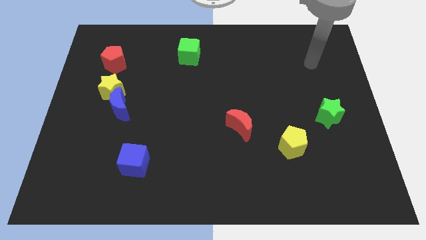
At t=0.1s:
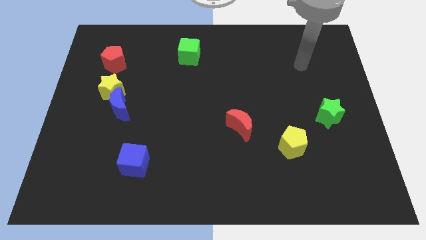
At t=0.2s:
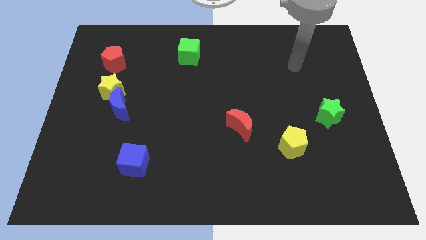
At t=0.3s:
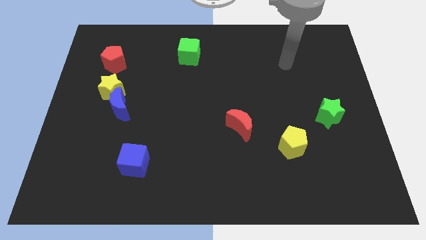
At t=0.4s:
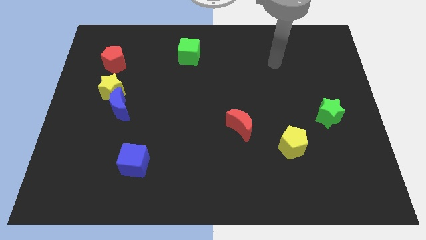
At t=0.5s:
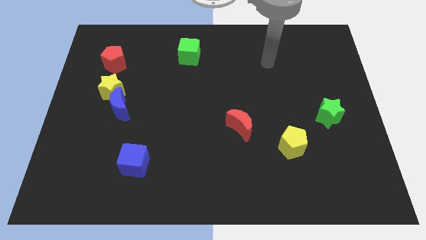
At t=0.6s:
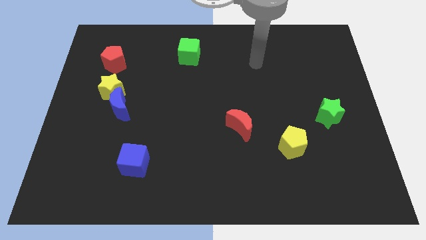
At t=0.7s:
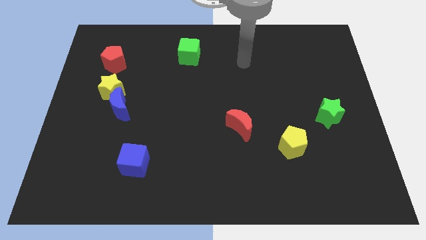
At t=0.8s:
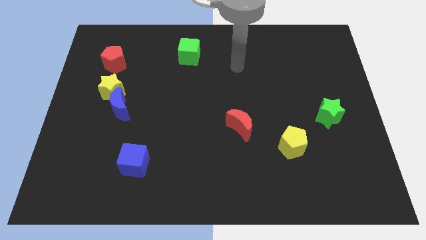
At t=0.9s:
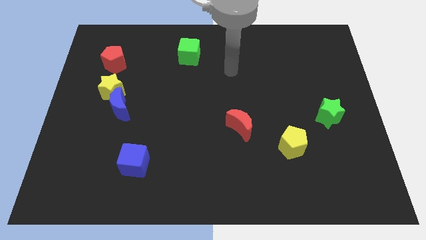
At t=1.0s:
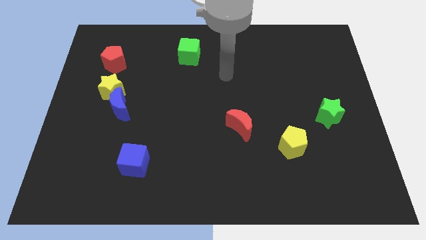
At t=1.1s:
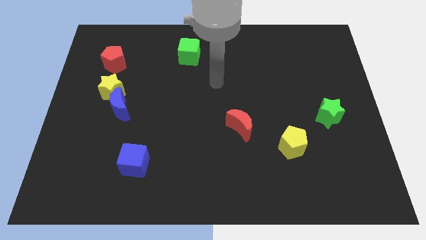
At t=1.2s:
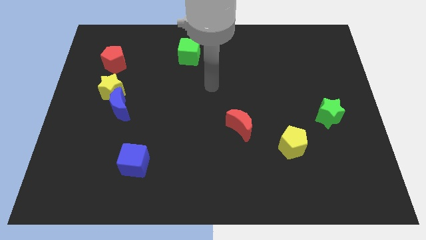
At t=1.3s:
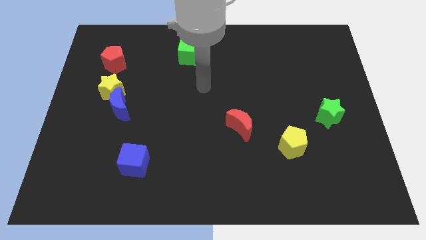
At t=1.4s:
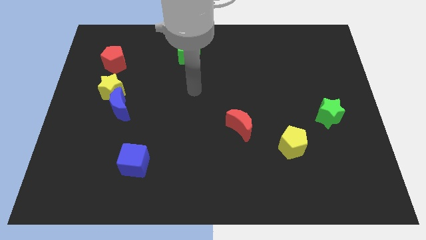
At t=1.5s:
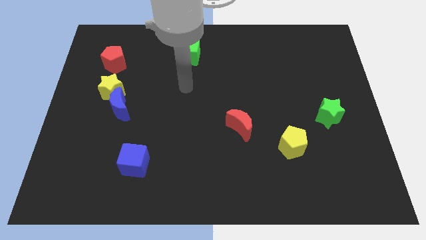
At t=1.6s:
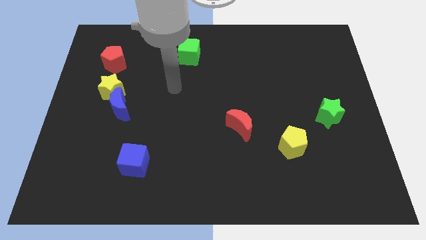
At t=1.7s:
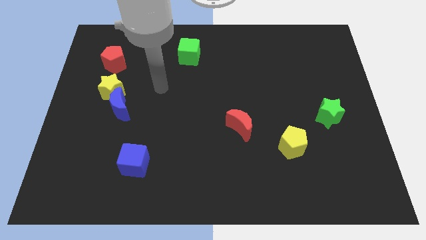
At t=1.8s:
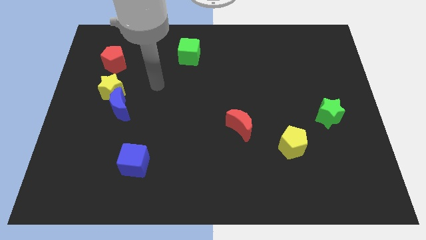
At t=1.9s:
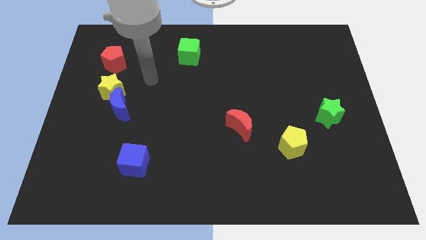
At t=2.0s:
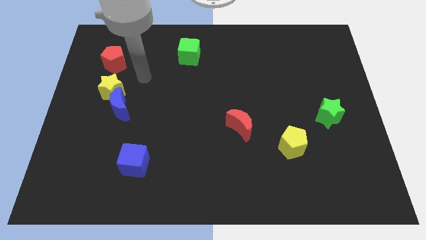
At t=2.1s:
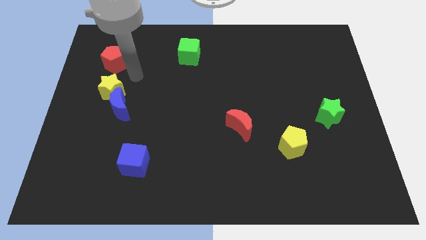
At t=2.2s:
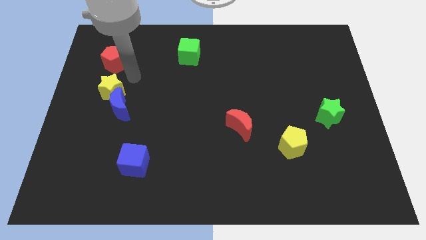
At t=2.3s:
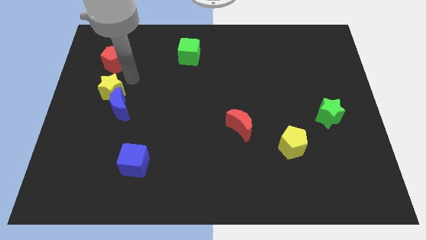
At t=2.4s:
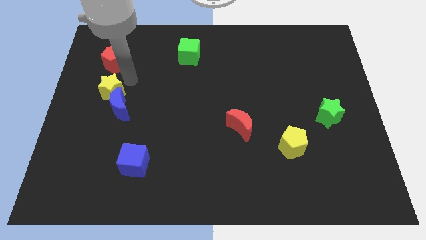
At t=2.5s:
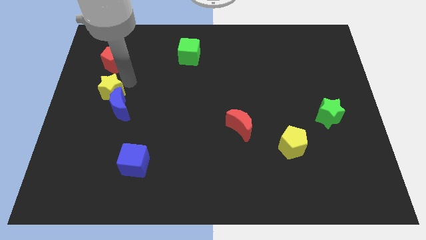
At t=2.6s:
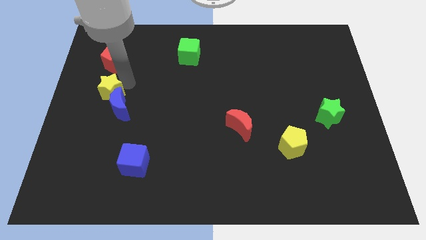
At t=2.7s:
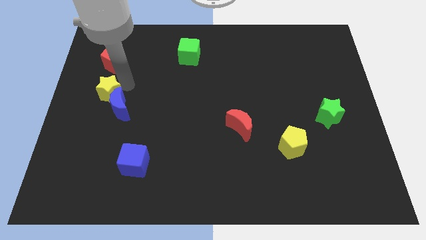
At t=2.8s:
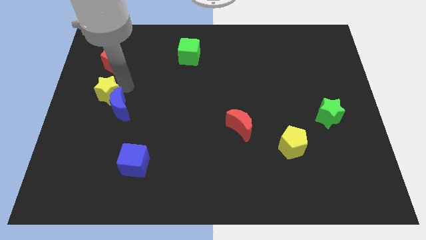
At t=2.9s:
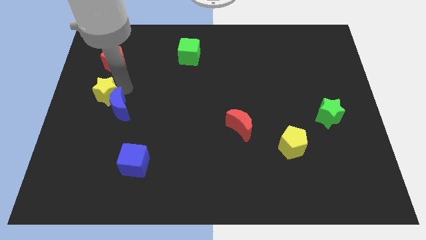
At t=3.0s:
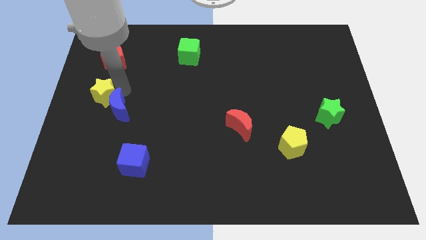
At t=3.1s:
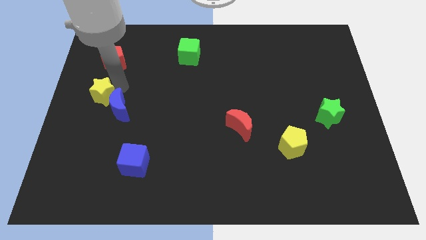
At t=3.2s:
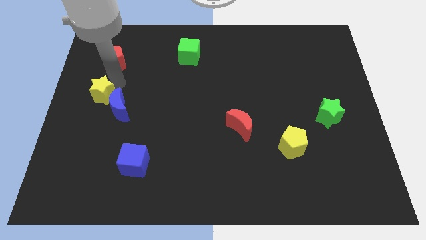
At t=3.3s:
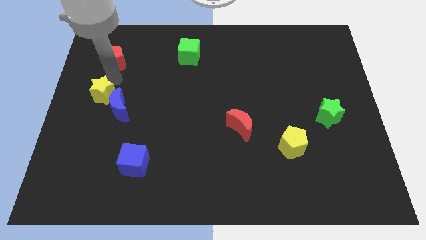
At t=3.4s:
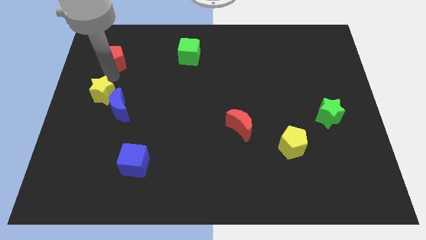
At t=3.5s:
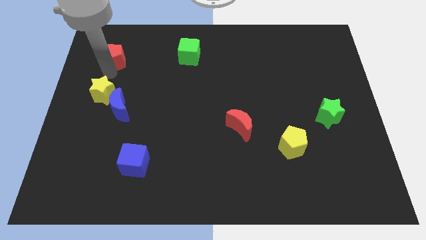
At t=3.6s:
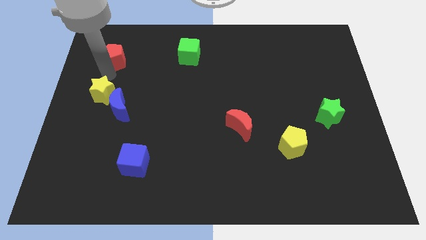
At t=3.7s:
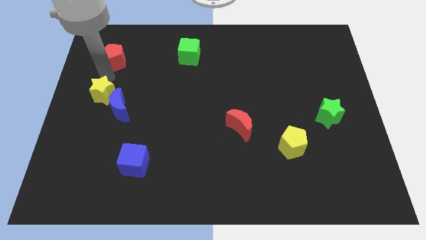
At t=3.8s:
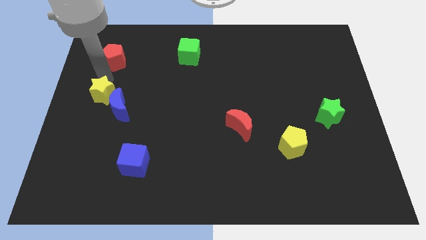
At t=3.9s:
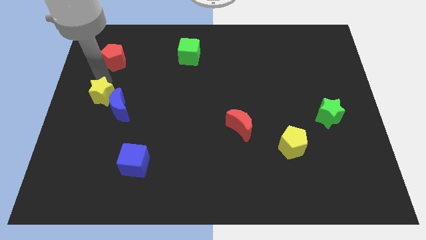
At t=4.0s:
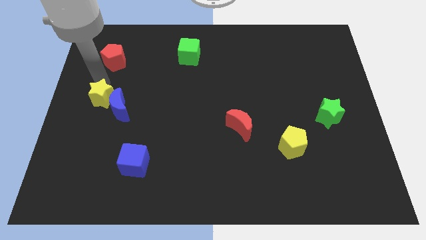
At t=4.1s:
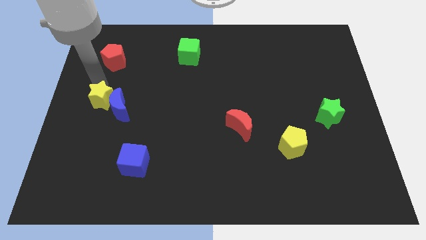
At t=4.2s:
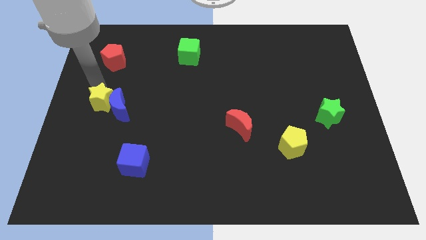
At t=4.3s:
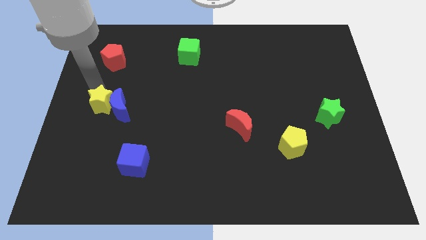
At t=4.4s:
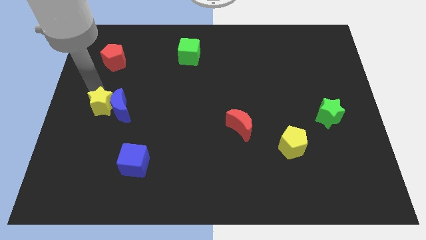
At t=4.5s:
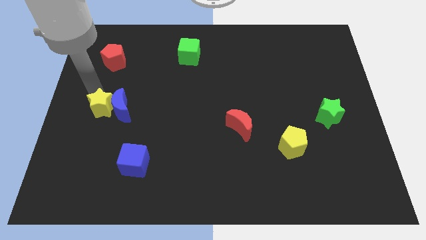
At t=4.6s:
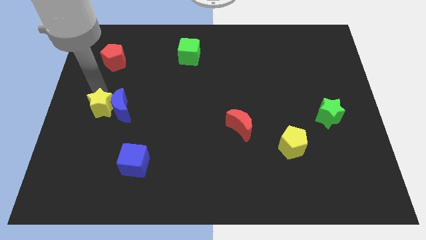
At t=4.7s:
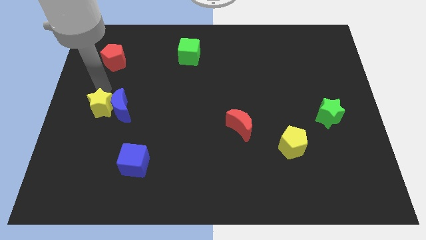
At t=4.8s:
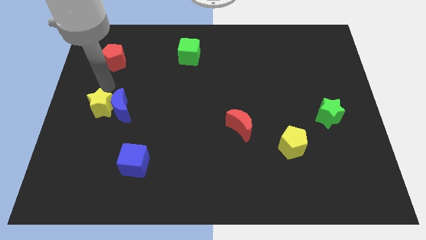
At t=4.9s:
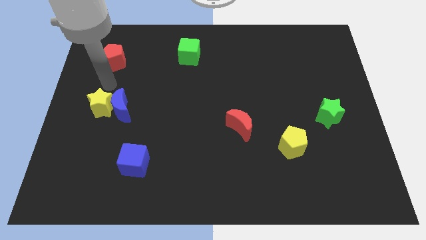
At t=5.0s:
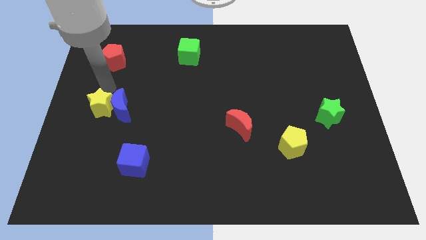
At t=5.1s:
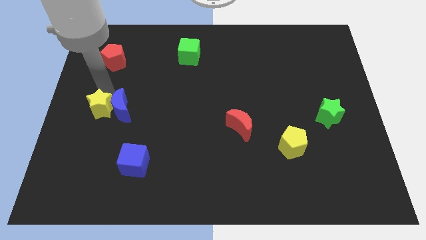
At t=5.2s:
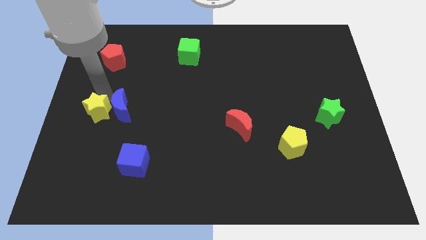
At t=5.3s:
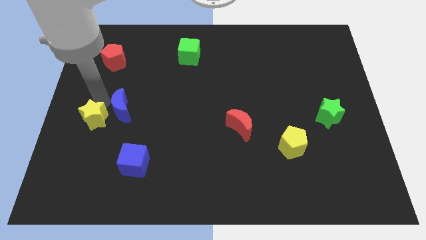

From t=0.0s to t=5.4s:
slightly push the yellow star downwards

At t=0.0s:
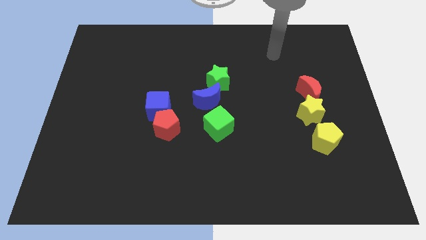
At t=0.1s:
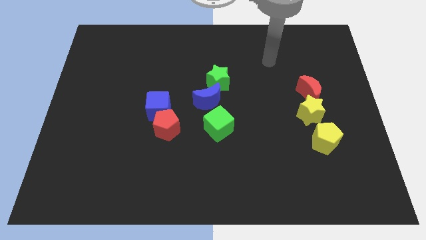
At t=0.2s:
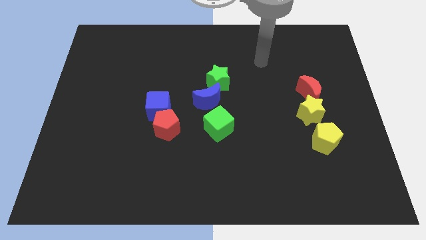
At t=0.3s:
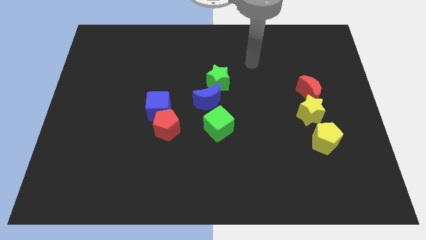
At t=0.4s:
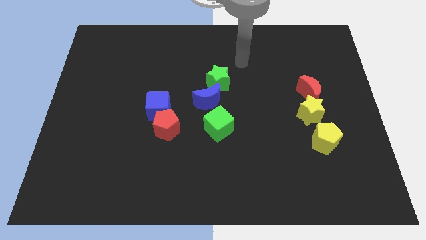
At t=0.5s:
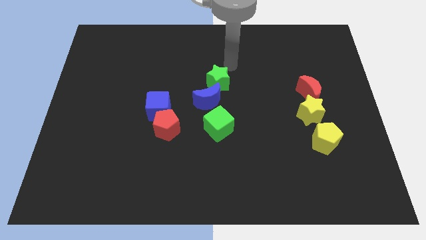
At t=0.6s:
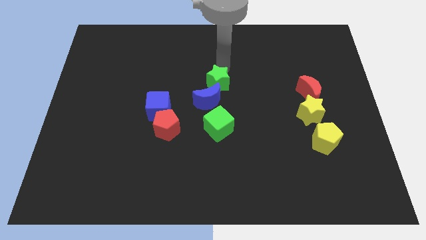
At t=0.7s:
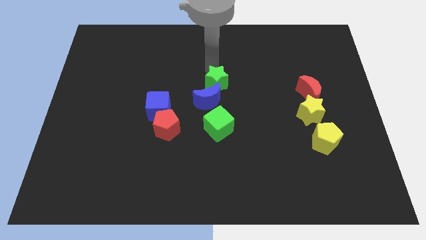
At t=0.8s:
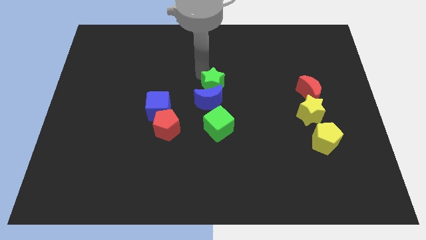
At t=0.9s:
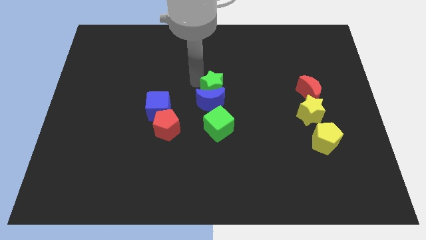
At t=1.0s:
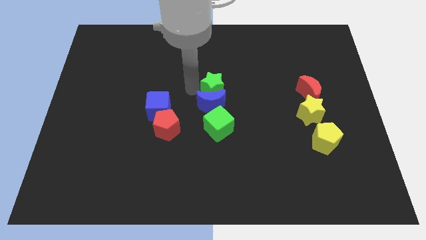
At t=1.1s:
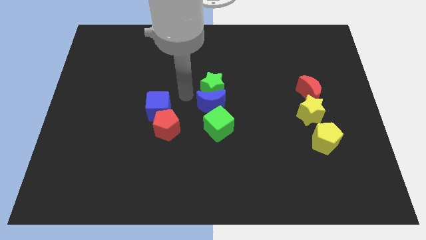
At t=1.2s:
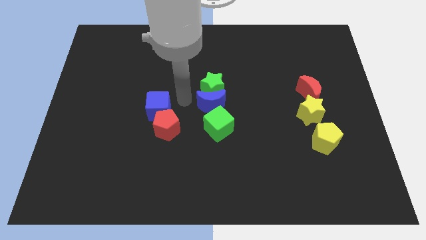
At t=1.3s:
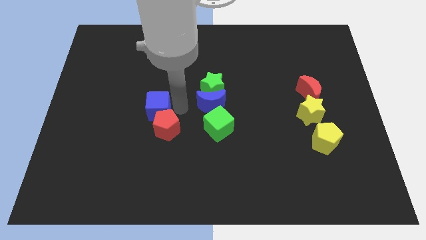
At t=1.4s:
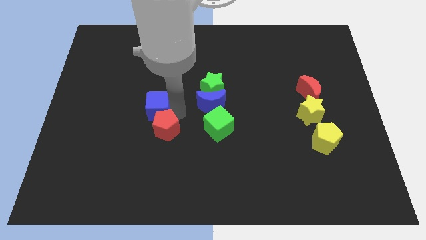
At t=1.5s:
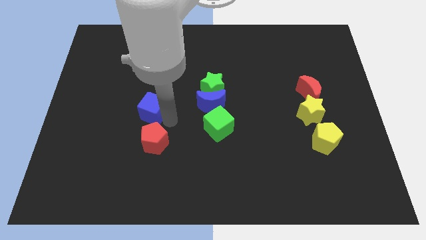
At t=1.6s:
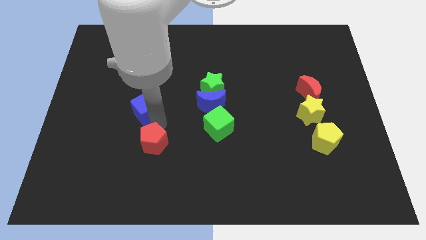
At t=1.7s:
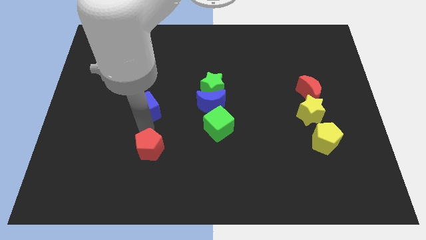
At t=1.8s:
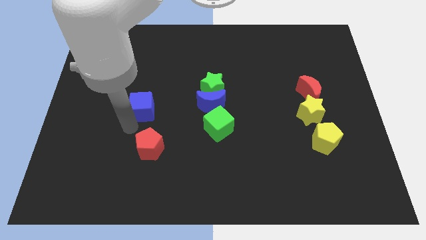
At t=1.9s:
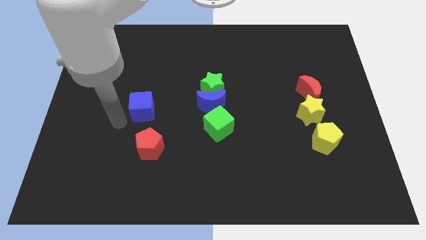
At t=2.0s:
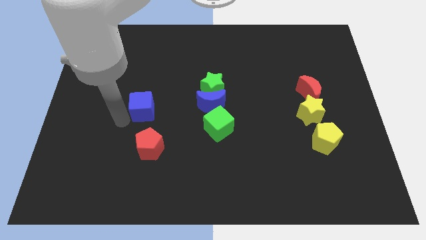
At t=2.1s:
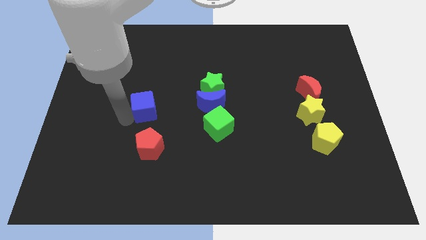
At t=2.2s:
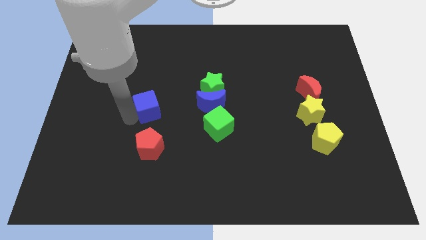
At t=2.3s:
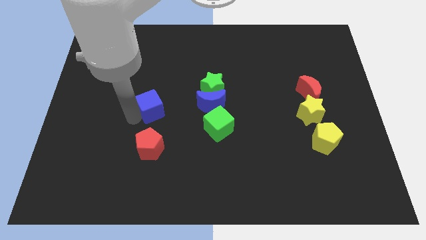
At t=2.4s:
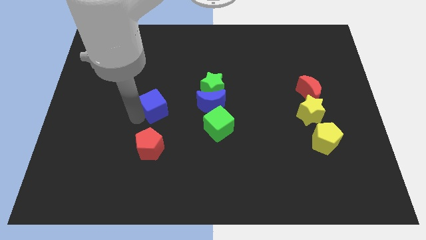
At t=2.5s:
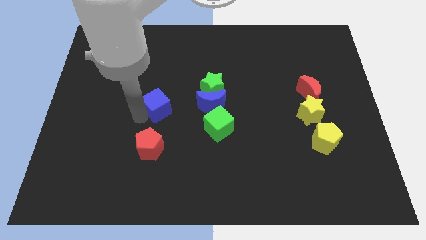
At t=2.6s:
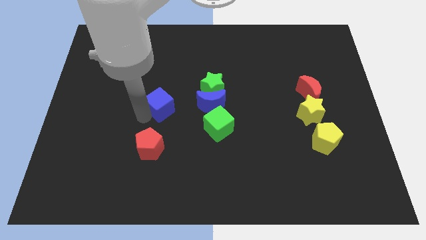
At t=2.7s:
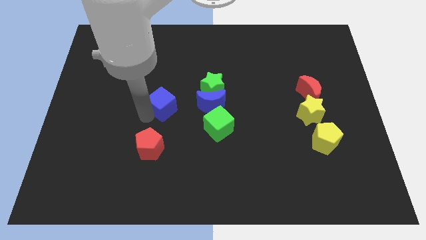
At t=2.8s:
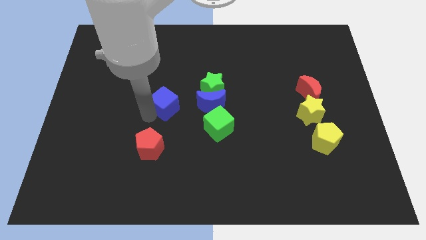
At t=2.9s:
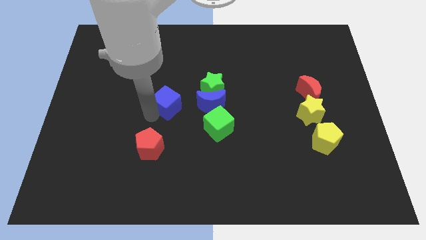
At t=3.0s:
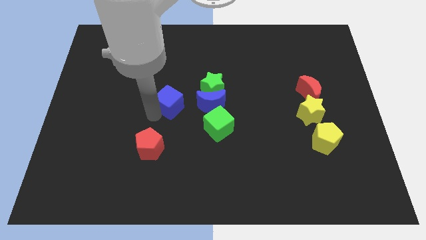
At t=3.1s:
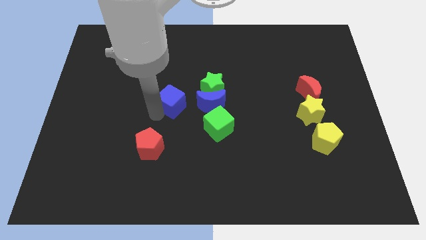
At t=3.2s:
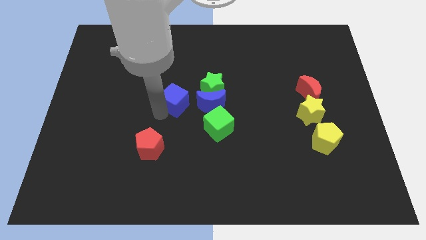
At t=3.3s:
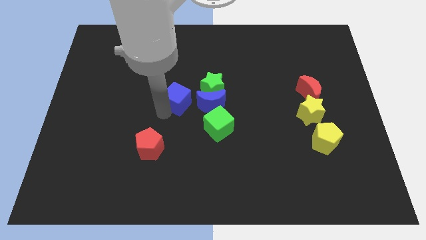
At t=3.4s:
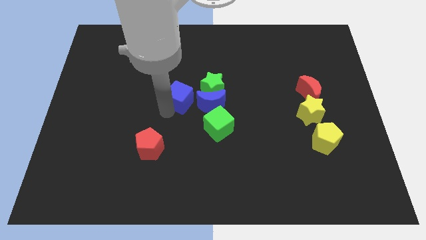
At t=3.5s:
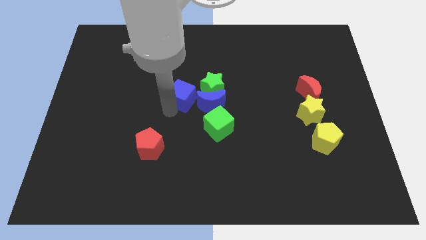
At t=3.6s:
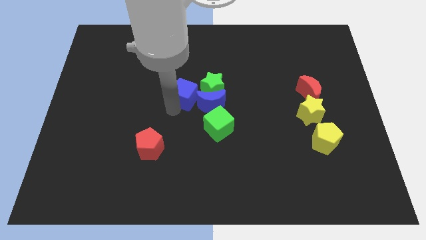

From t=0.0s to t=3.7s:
slightly push the blue cube upwards and then right
